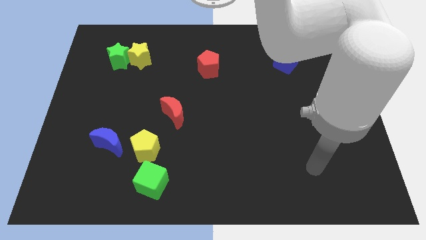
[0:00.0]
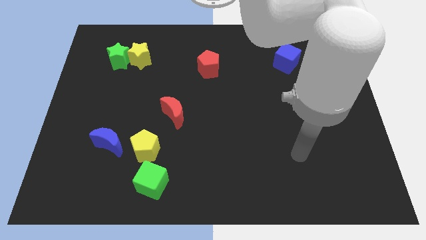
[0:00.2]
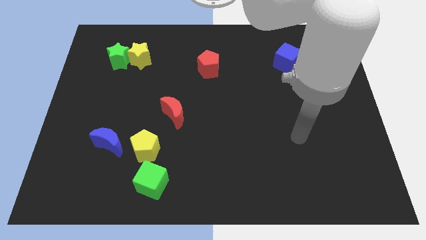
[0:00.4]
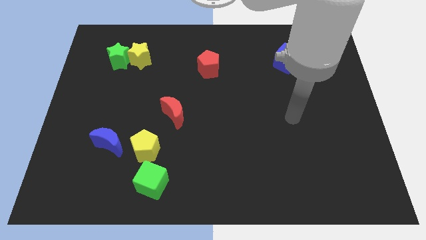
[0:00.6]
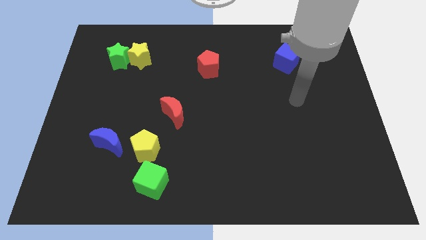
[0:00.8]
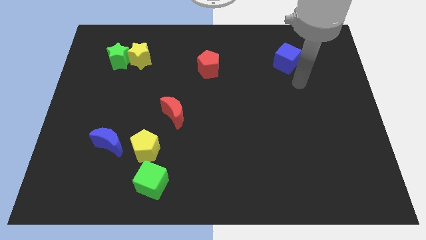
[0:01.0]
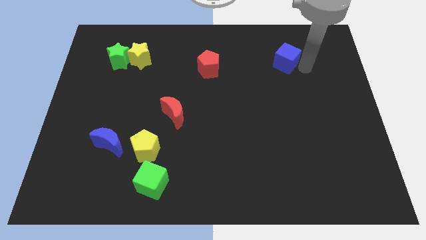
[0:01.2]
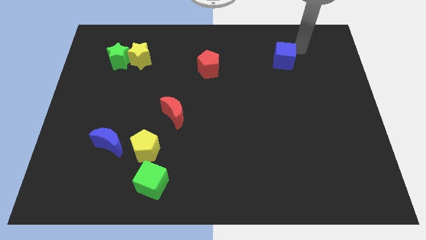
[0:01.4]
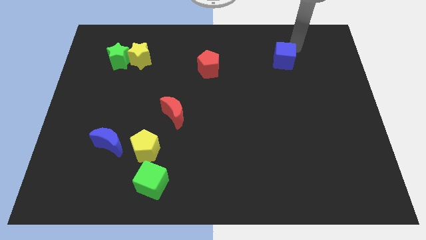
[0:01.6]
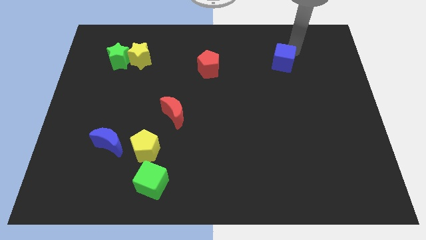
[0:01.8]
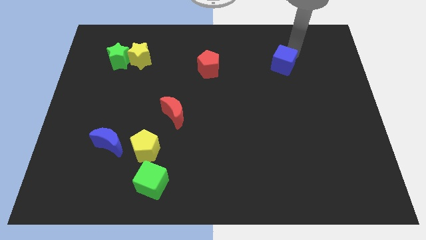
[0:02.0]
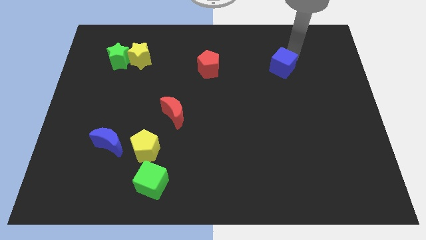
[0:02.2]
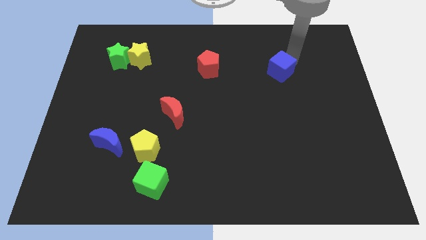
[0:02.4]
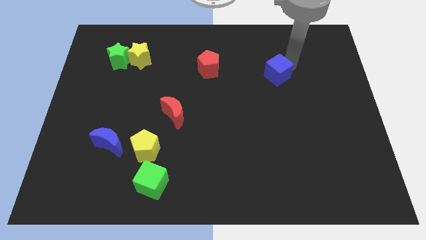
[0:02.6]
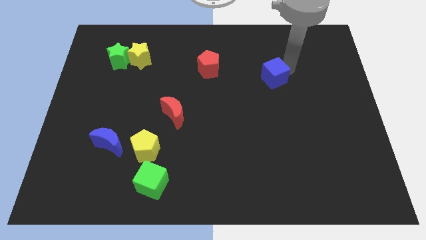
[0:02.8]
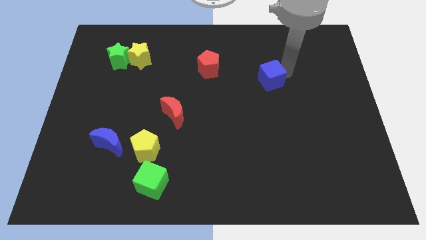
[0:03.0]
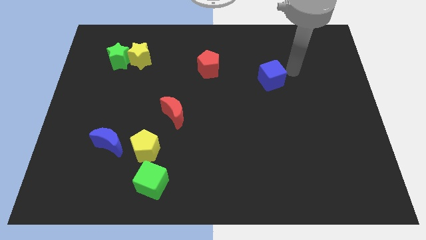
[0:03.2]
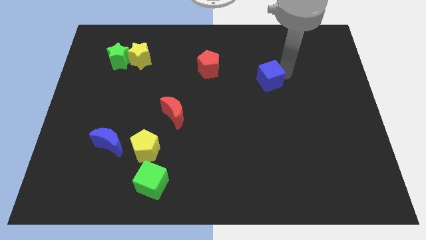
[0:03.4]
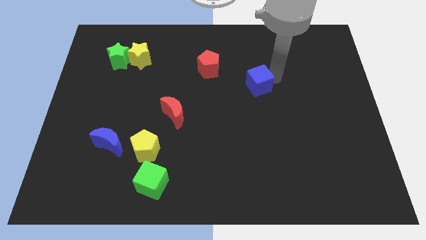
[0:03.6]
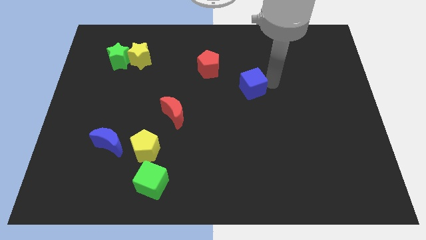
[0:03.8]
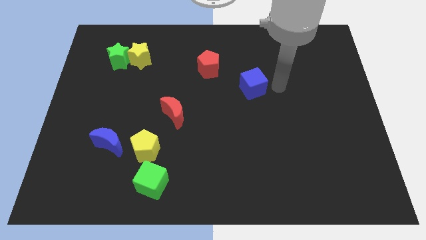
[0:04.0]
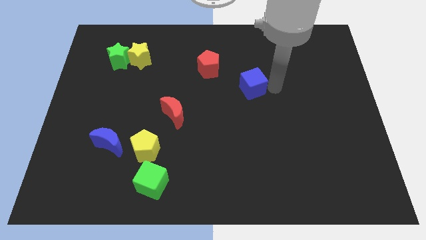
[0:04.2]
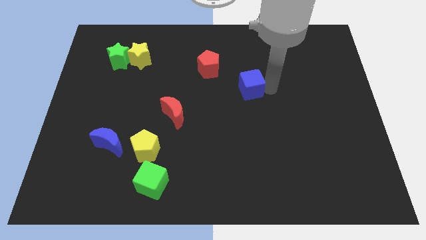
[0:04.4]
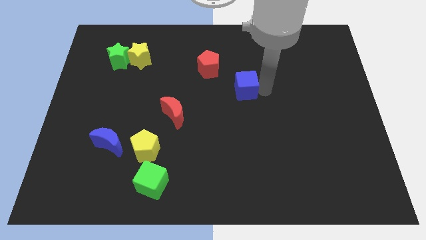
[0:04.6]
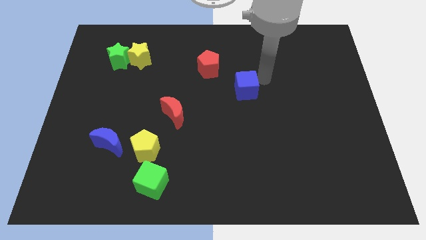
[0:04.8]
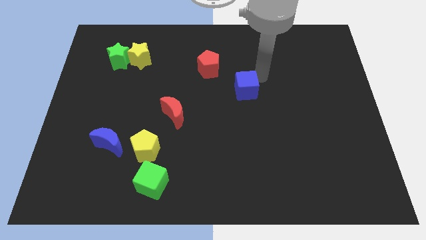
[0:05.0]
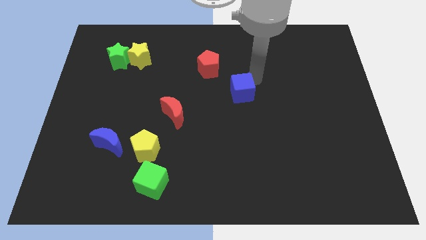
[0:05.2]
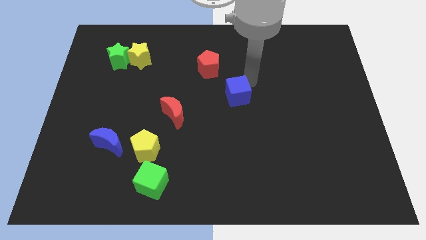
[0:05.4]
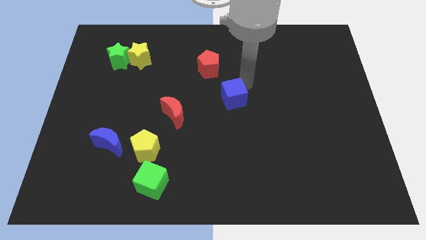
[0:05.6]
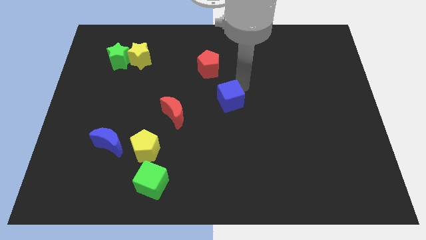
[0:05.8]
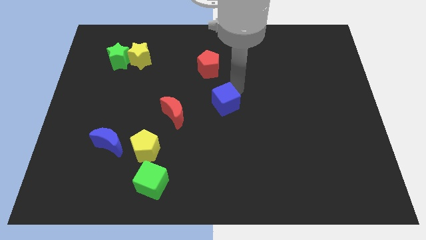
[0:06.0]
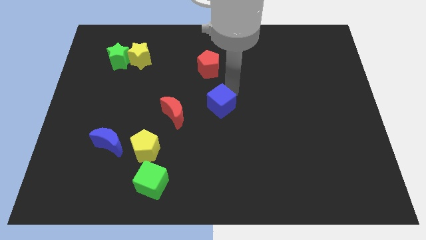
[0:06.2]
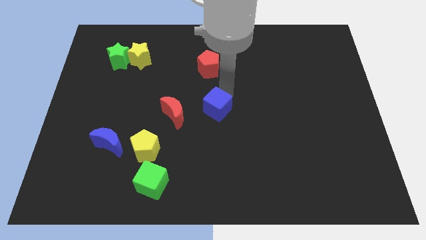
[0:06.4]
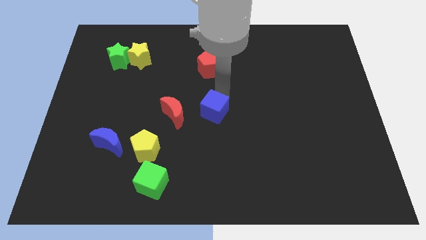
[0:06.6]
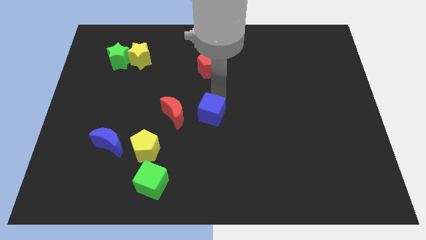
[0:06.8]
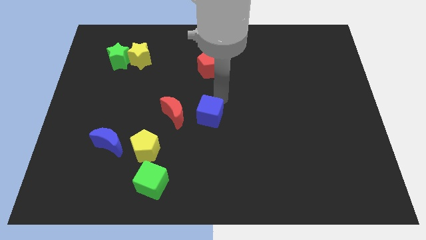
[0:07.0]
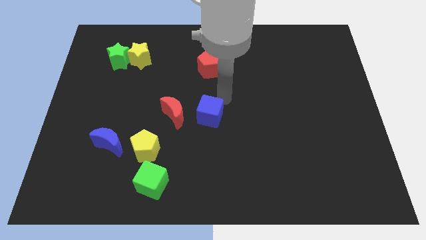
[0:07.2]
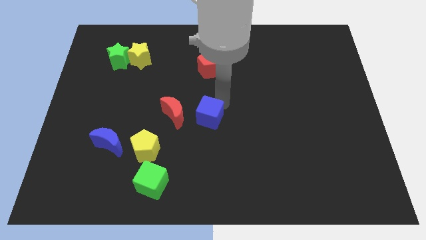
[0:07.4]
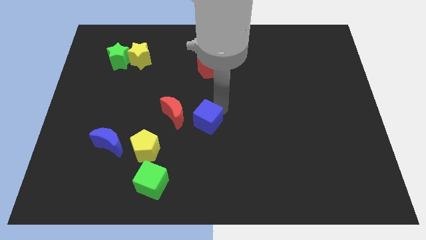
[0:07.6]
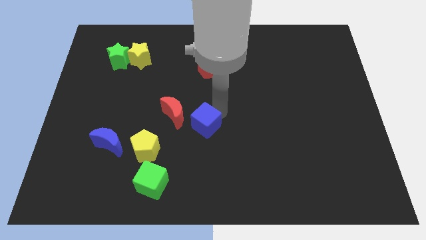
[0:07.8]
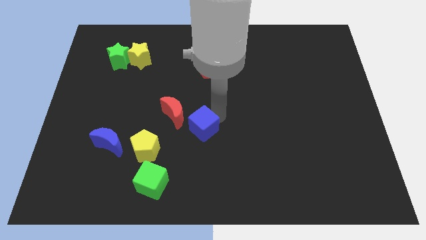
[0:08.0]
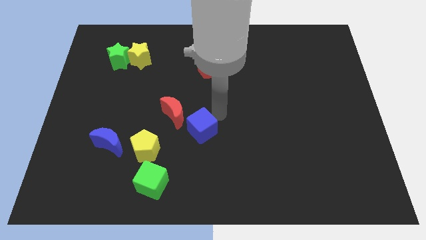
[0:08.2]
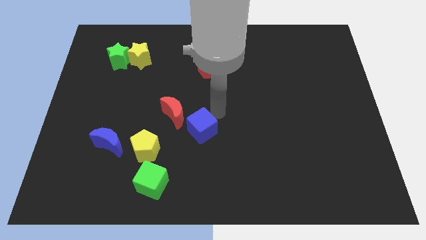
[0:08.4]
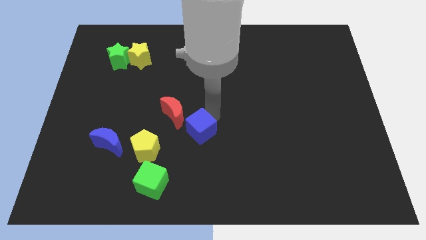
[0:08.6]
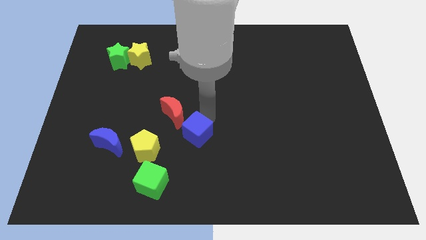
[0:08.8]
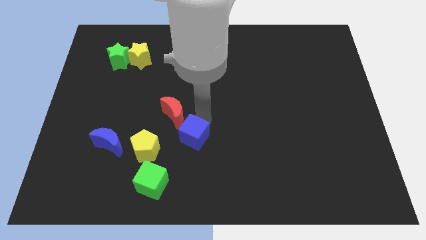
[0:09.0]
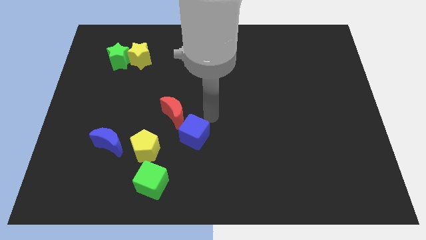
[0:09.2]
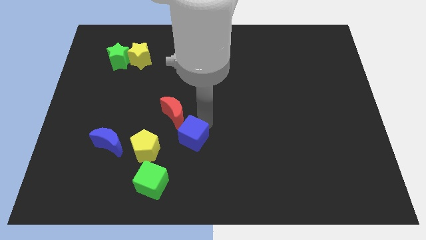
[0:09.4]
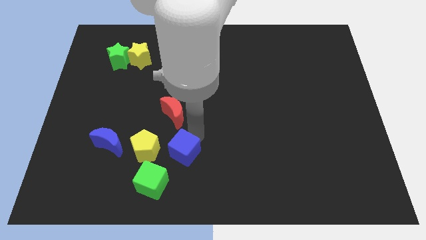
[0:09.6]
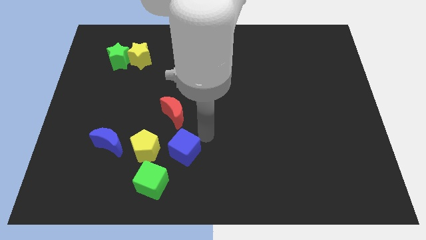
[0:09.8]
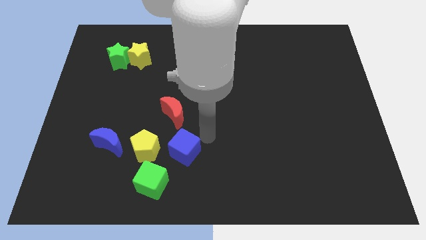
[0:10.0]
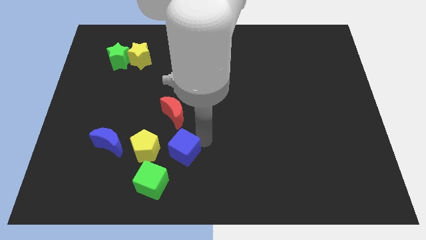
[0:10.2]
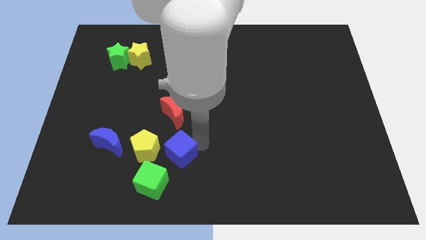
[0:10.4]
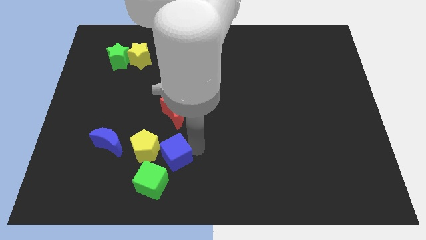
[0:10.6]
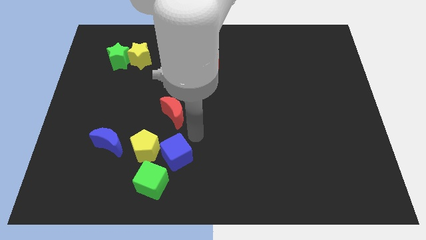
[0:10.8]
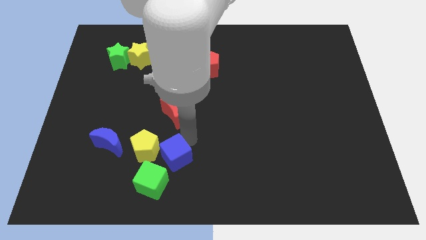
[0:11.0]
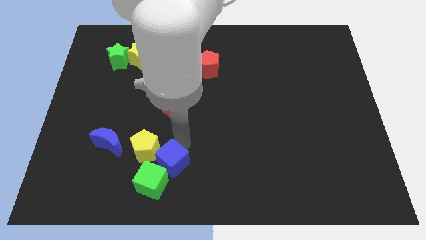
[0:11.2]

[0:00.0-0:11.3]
move the blue cube next to the green cube

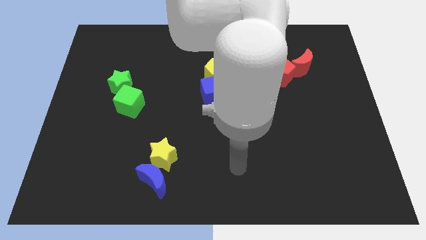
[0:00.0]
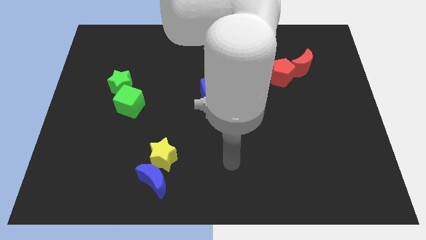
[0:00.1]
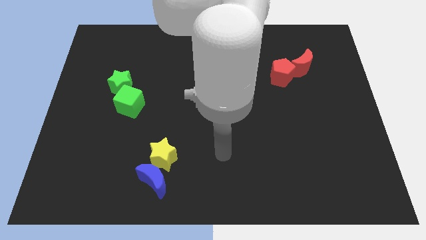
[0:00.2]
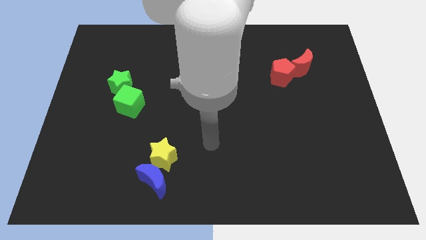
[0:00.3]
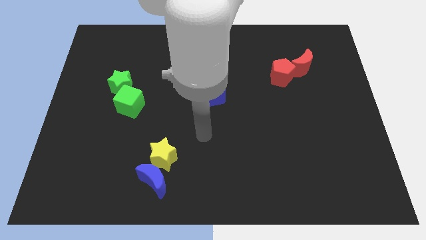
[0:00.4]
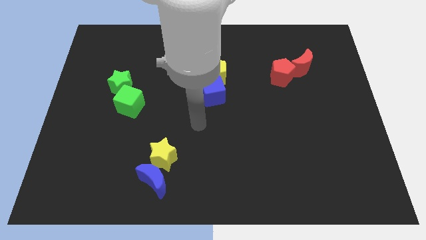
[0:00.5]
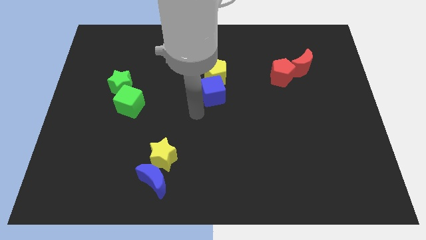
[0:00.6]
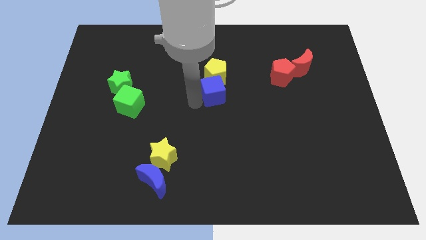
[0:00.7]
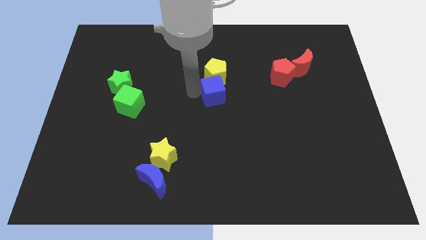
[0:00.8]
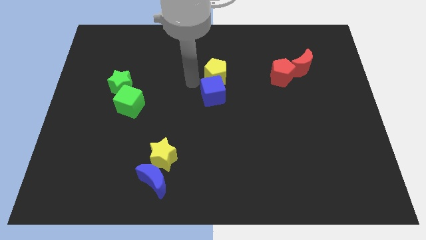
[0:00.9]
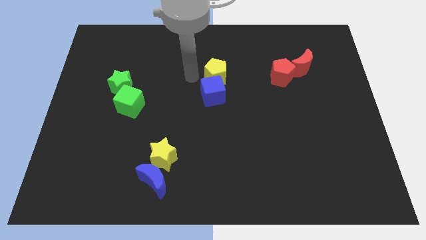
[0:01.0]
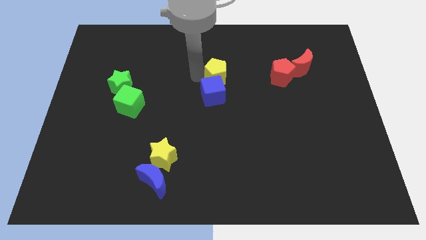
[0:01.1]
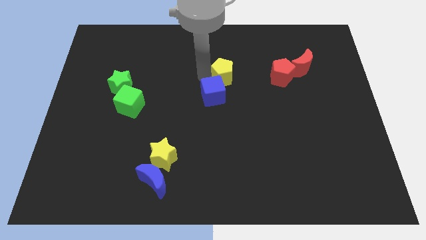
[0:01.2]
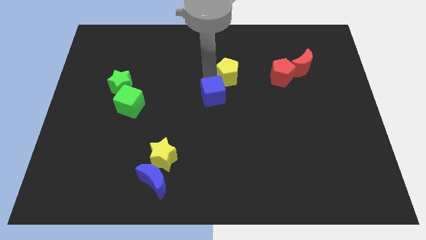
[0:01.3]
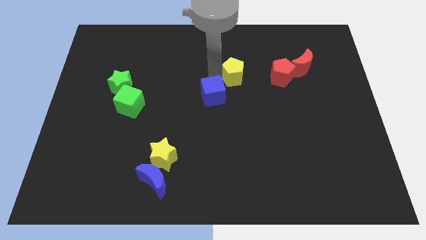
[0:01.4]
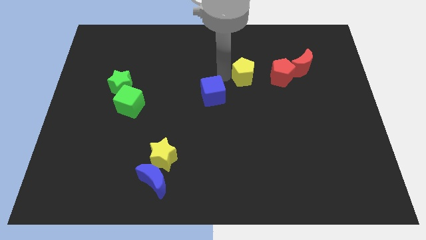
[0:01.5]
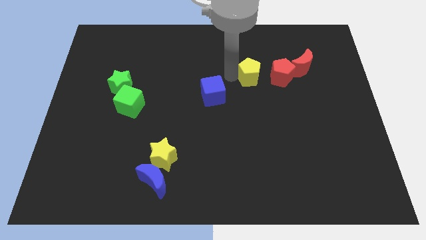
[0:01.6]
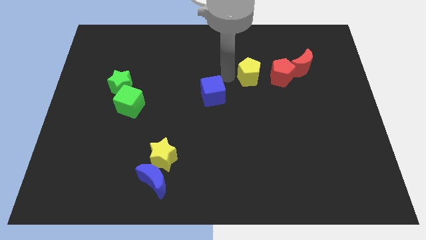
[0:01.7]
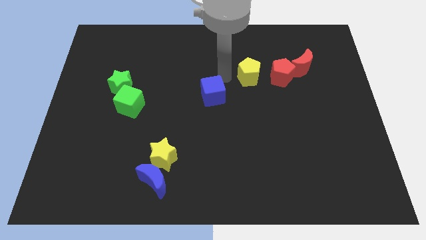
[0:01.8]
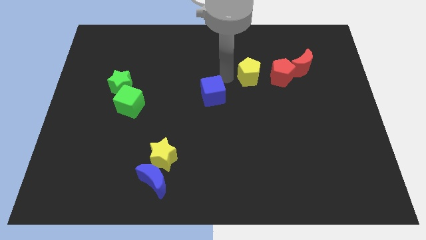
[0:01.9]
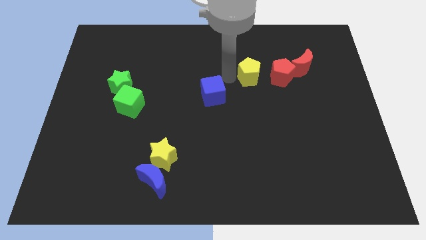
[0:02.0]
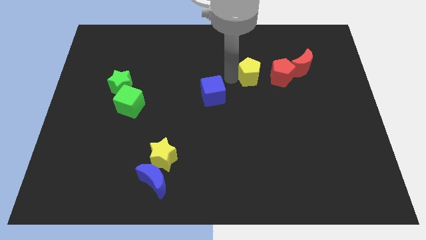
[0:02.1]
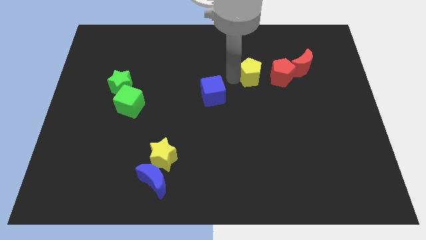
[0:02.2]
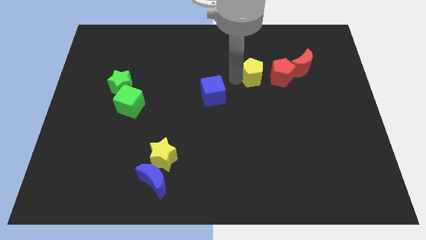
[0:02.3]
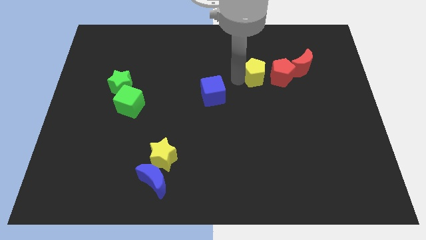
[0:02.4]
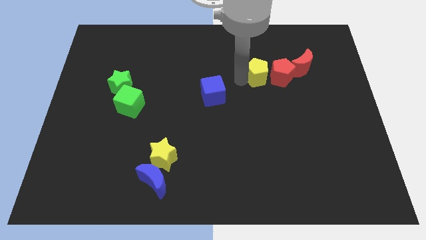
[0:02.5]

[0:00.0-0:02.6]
put the yellow pentagon next to the red pentagon
